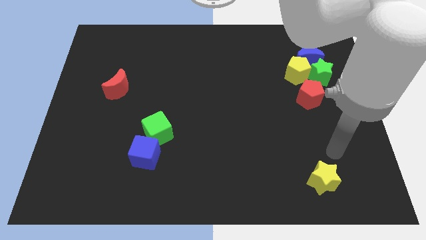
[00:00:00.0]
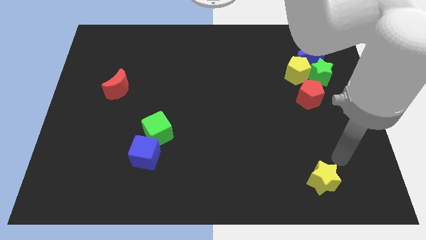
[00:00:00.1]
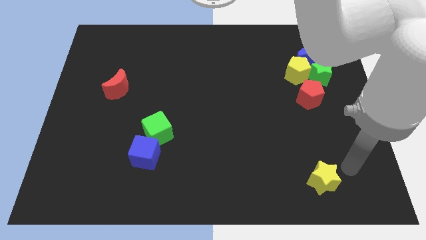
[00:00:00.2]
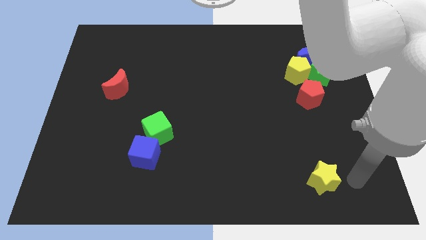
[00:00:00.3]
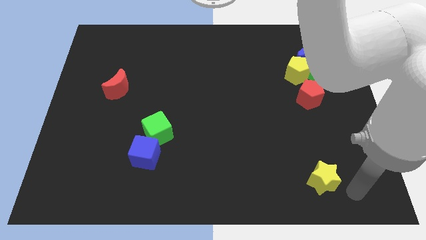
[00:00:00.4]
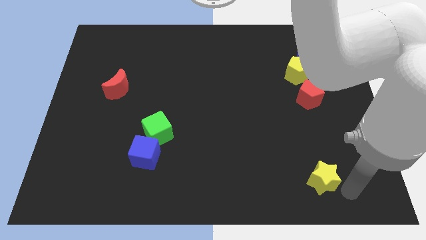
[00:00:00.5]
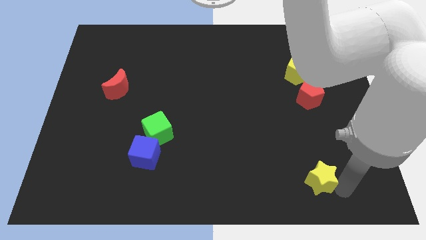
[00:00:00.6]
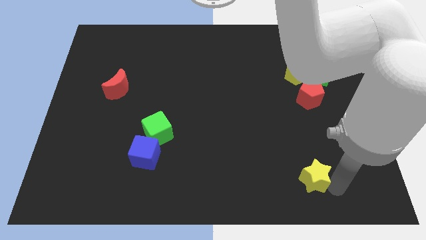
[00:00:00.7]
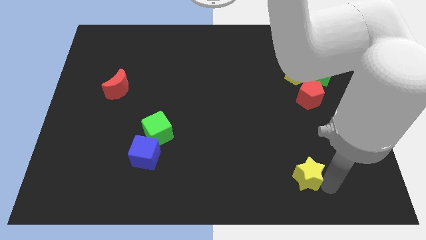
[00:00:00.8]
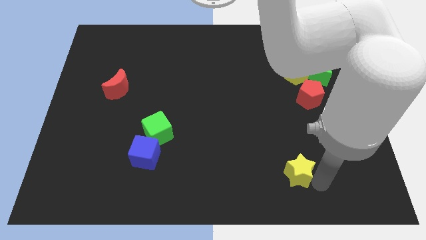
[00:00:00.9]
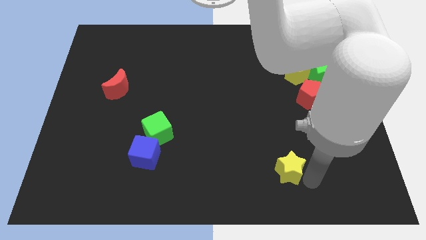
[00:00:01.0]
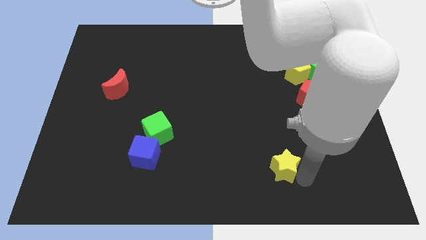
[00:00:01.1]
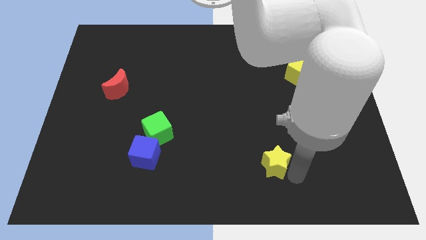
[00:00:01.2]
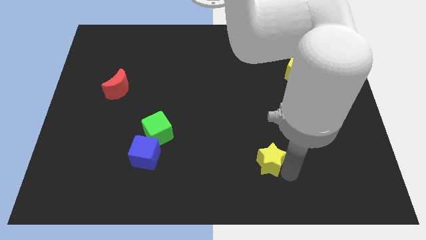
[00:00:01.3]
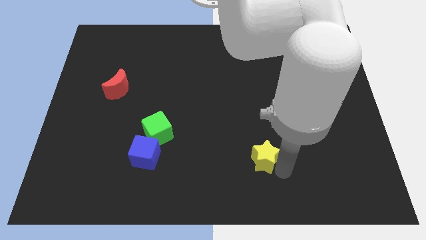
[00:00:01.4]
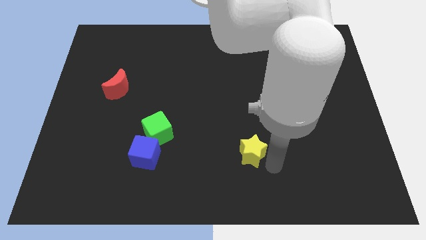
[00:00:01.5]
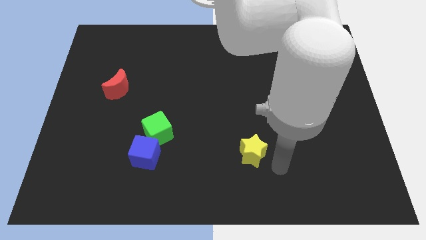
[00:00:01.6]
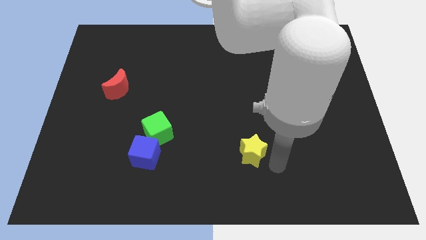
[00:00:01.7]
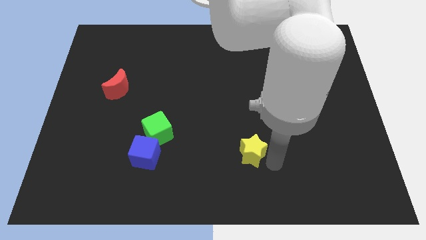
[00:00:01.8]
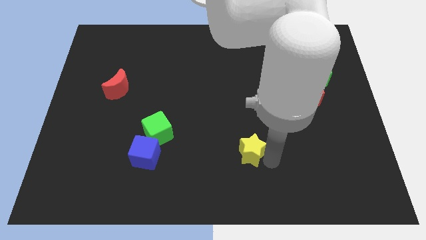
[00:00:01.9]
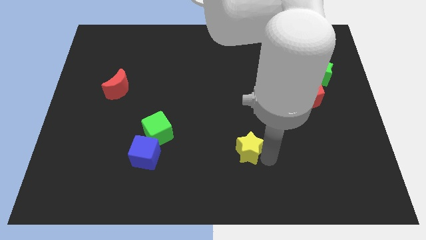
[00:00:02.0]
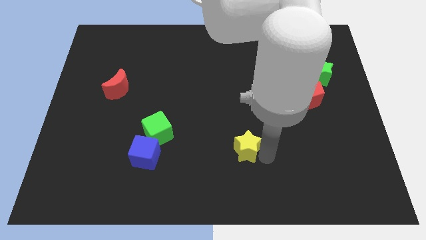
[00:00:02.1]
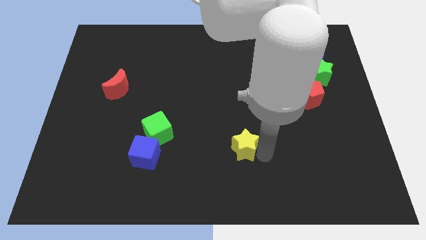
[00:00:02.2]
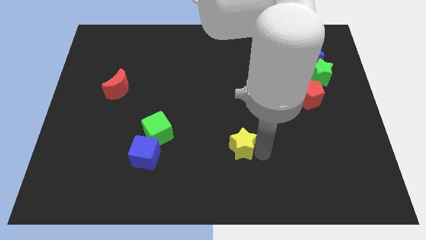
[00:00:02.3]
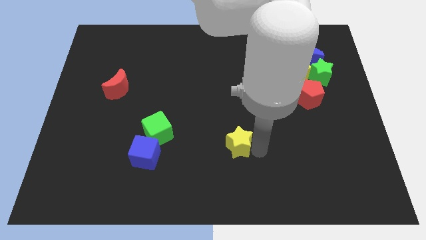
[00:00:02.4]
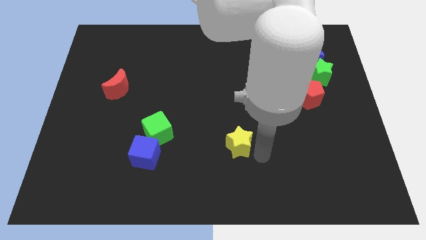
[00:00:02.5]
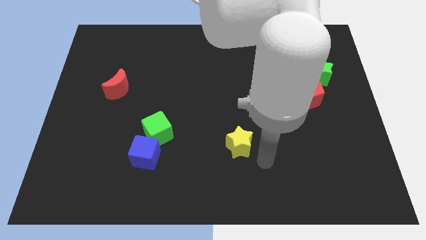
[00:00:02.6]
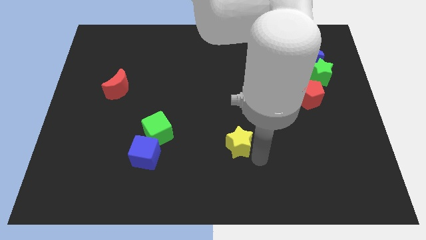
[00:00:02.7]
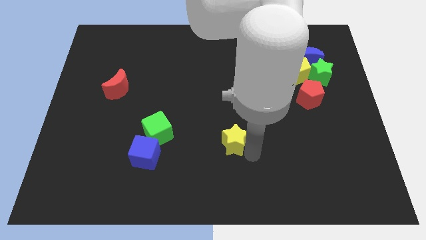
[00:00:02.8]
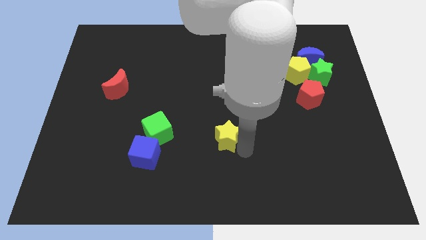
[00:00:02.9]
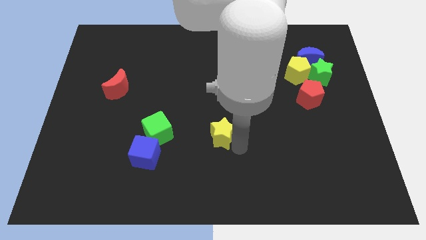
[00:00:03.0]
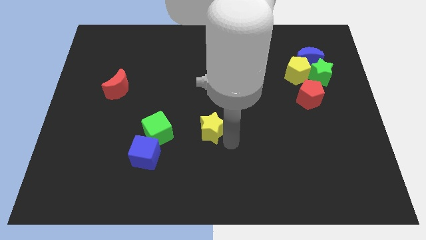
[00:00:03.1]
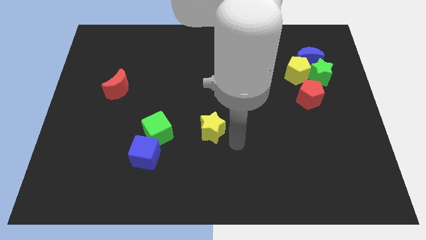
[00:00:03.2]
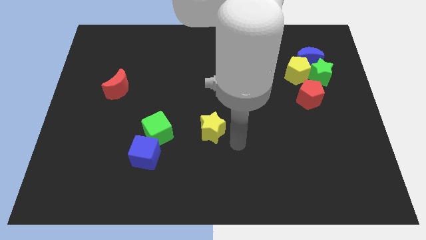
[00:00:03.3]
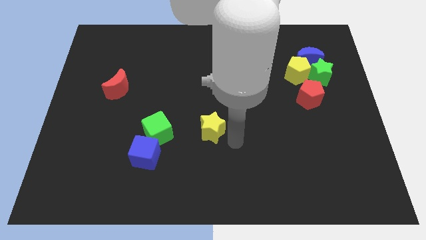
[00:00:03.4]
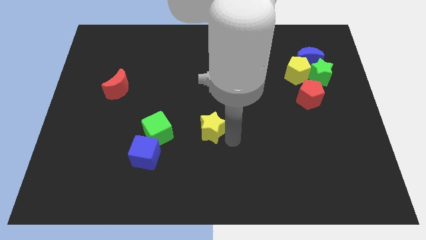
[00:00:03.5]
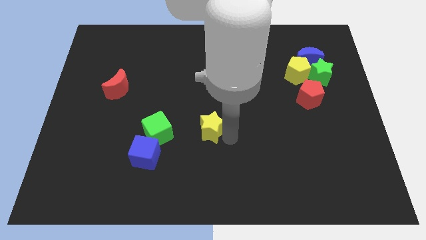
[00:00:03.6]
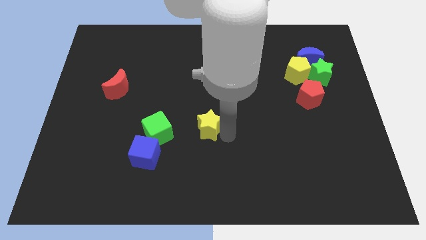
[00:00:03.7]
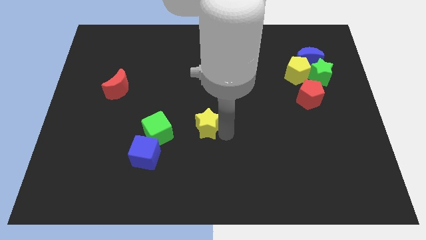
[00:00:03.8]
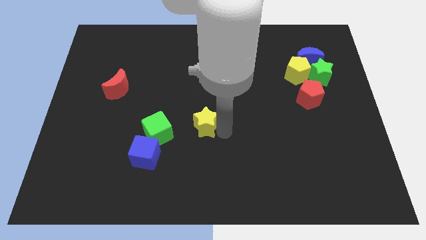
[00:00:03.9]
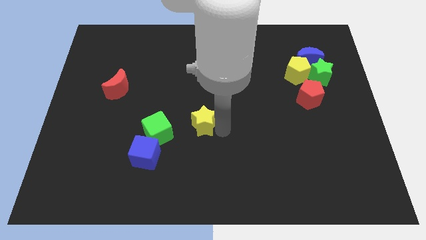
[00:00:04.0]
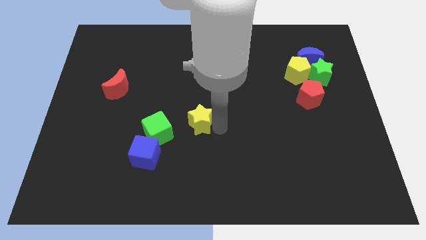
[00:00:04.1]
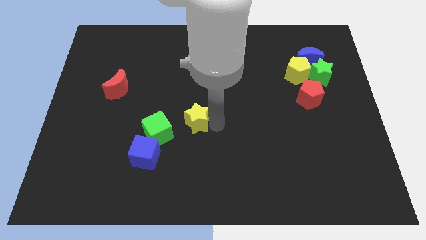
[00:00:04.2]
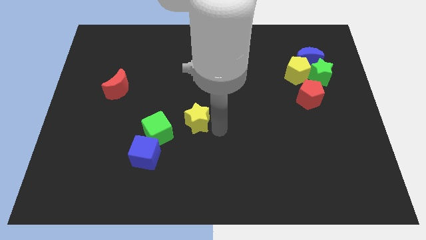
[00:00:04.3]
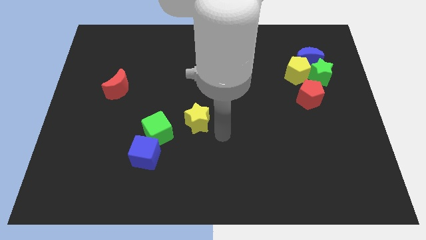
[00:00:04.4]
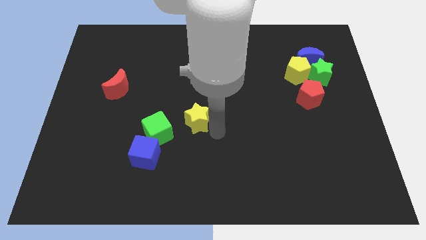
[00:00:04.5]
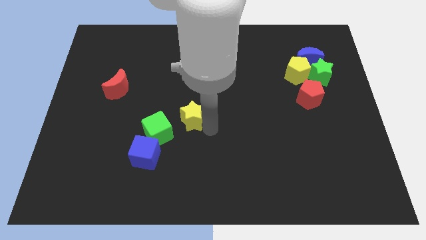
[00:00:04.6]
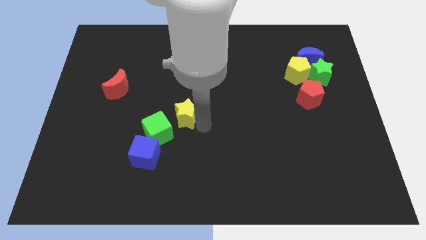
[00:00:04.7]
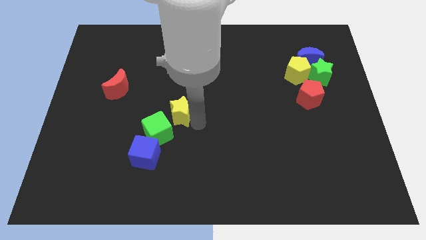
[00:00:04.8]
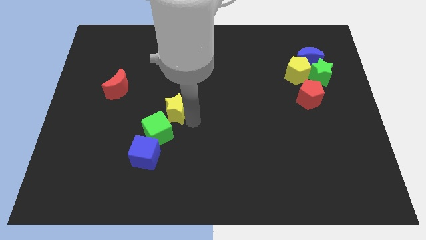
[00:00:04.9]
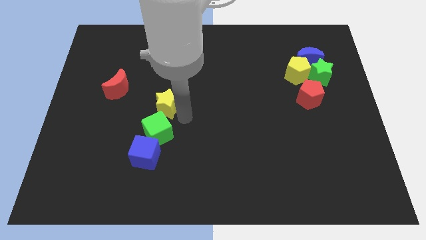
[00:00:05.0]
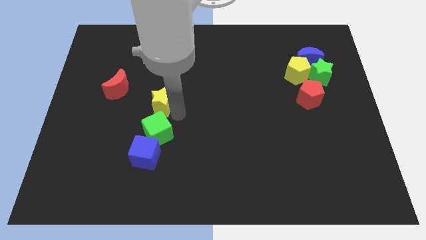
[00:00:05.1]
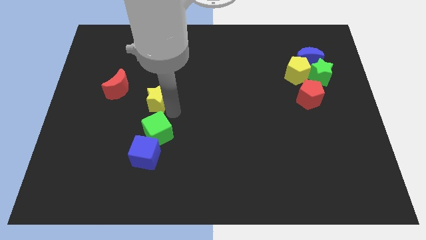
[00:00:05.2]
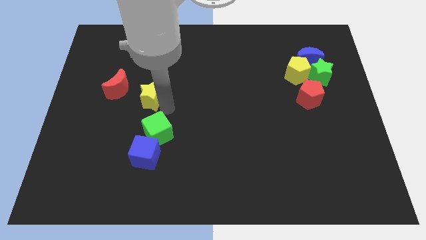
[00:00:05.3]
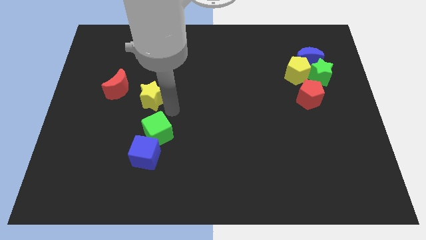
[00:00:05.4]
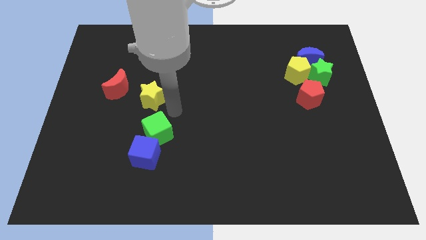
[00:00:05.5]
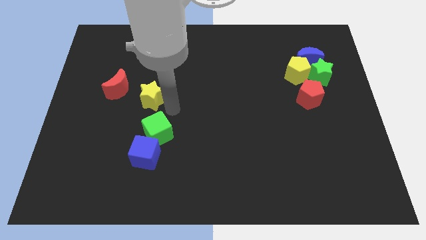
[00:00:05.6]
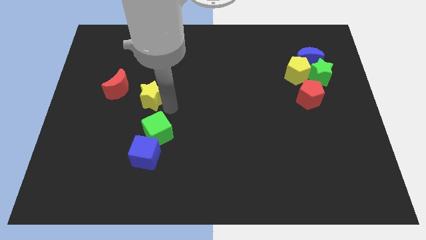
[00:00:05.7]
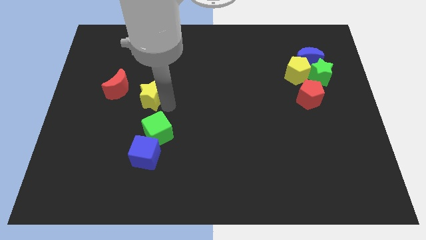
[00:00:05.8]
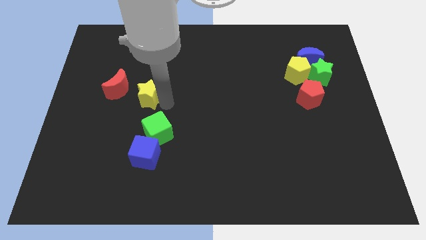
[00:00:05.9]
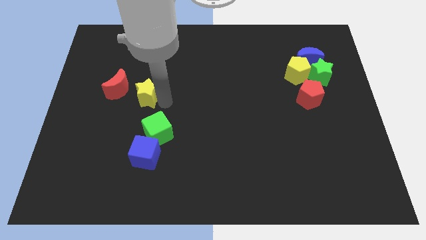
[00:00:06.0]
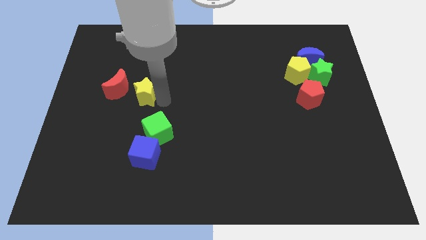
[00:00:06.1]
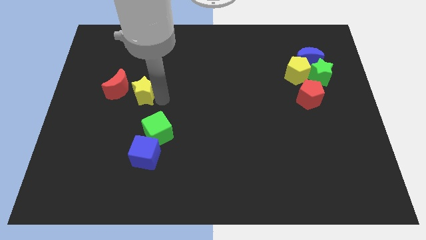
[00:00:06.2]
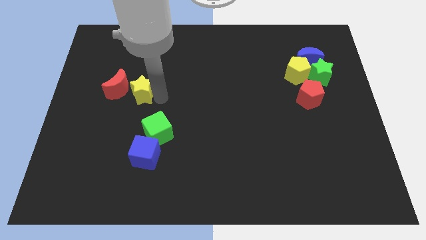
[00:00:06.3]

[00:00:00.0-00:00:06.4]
push the yellow star close to the red moon

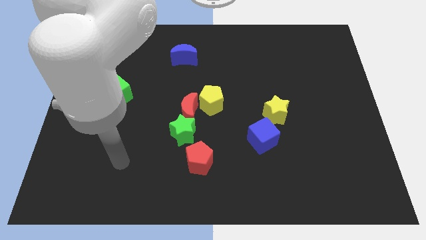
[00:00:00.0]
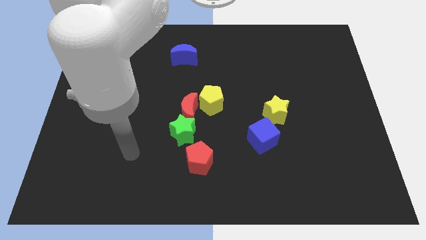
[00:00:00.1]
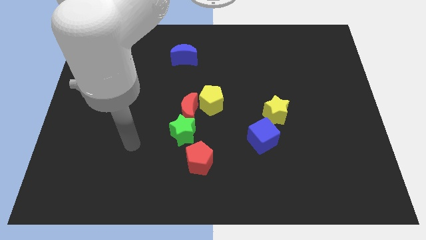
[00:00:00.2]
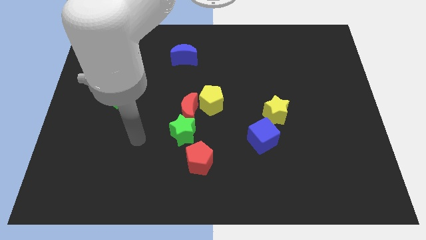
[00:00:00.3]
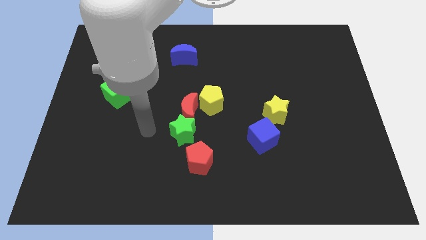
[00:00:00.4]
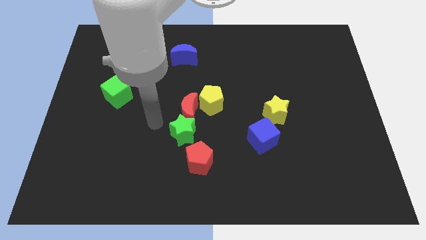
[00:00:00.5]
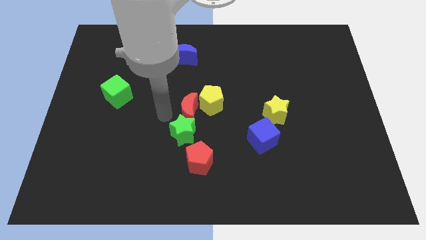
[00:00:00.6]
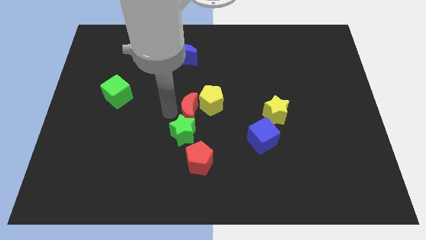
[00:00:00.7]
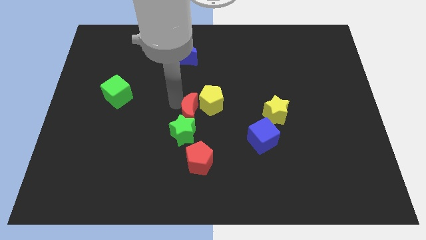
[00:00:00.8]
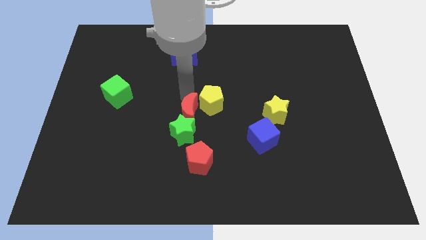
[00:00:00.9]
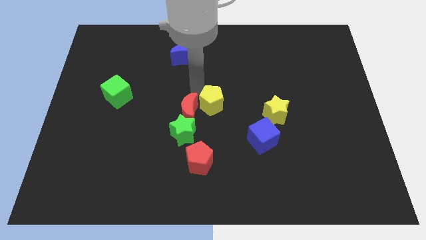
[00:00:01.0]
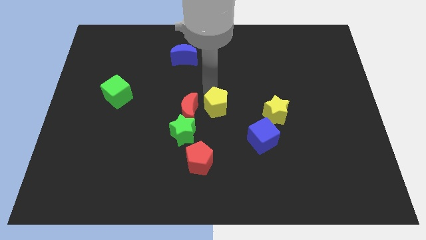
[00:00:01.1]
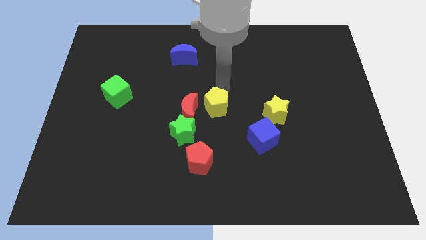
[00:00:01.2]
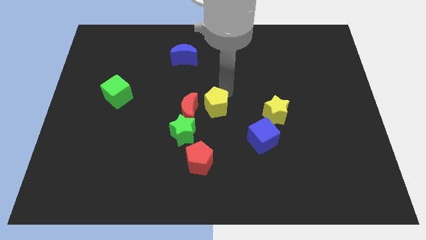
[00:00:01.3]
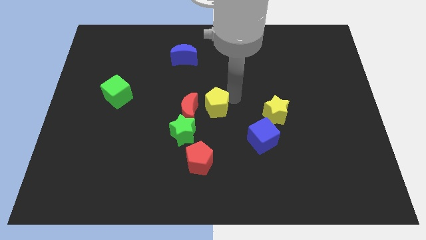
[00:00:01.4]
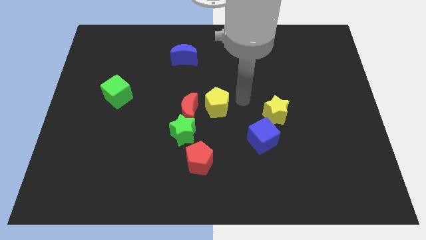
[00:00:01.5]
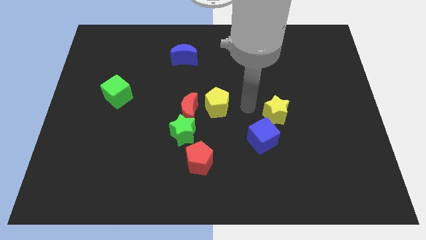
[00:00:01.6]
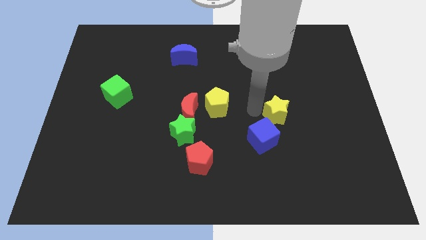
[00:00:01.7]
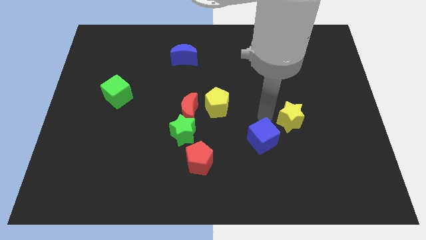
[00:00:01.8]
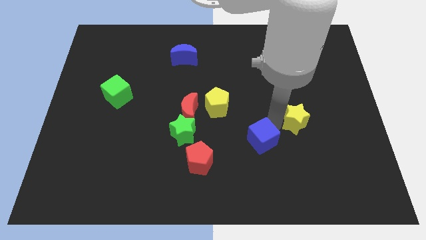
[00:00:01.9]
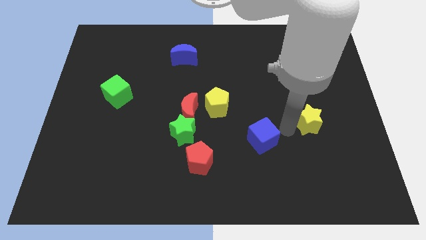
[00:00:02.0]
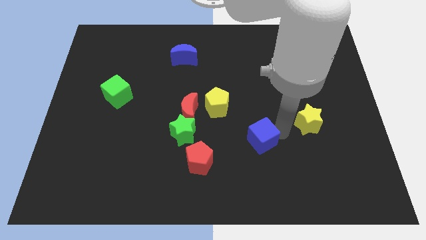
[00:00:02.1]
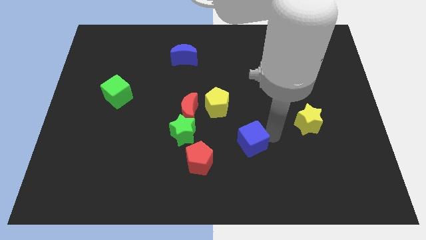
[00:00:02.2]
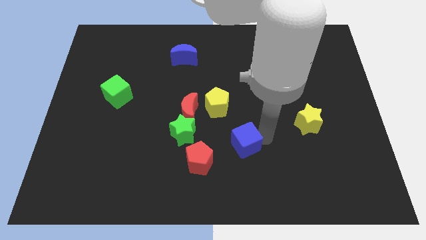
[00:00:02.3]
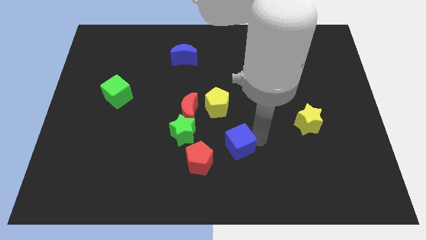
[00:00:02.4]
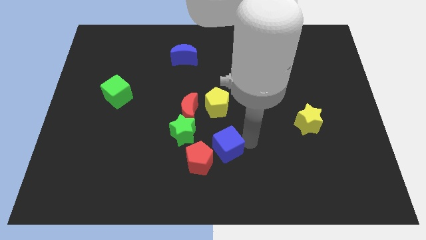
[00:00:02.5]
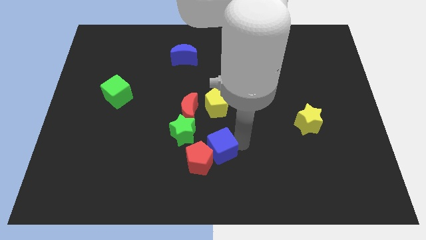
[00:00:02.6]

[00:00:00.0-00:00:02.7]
push the blue cube close to the red pentagon
